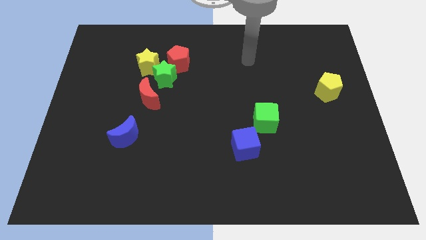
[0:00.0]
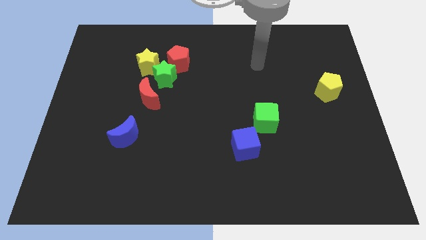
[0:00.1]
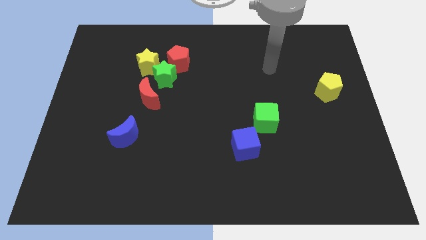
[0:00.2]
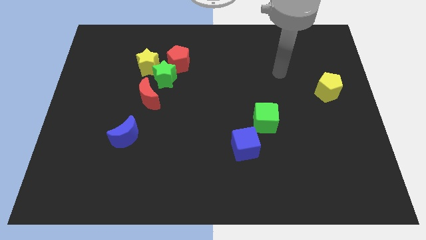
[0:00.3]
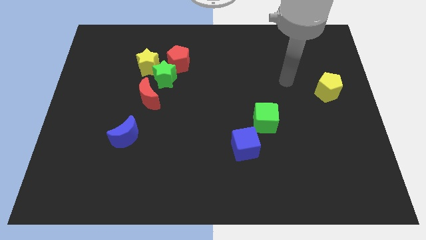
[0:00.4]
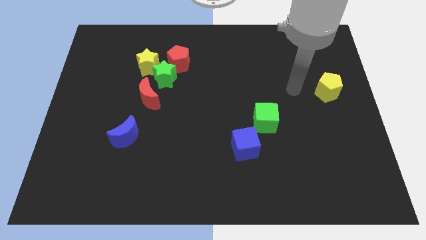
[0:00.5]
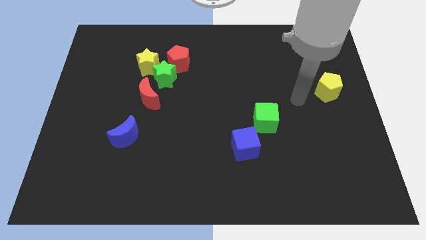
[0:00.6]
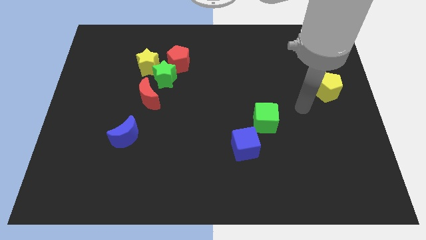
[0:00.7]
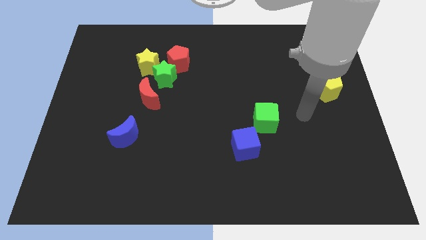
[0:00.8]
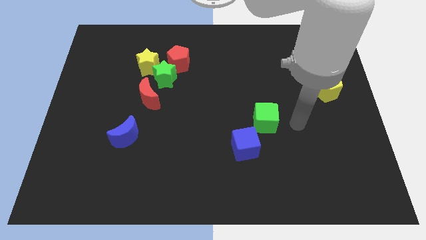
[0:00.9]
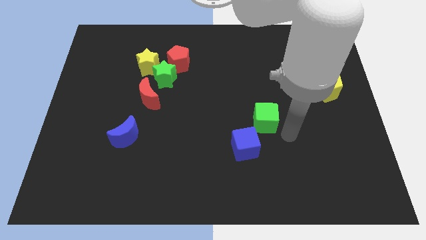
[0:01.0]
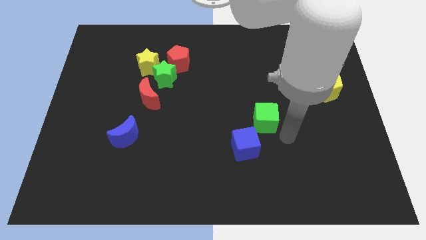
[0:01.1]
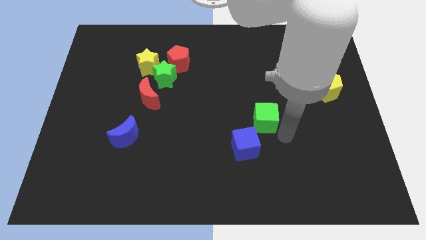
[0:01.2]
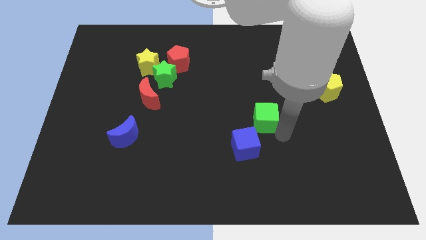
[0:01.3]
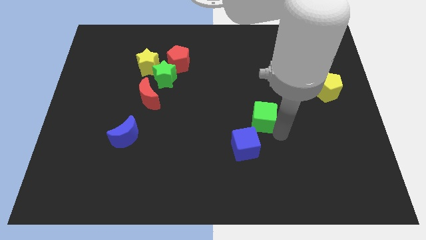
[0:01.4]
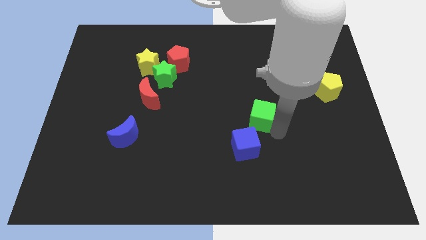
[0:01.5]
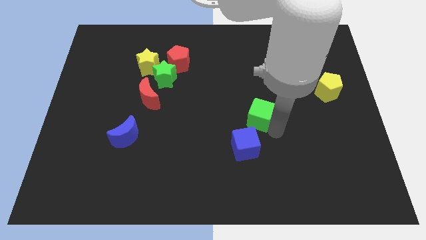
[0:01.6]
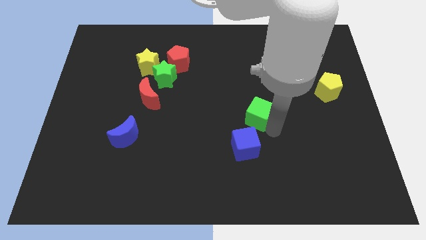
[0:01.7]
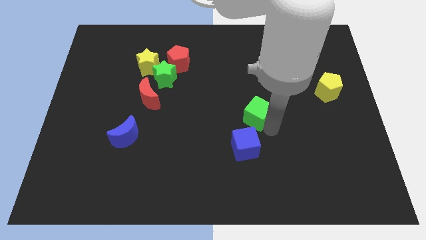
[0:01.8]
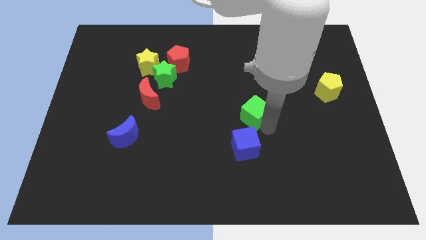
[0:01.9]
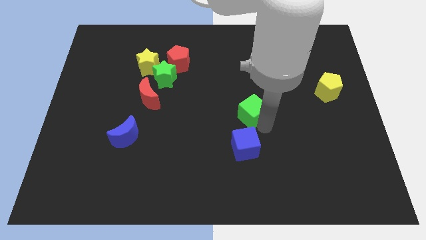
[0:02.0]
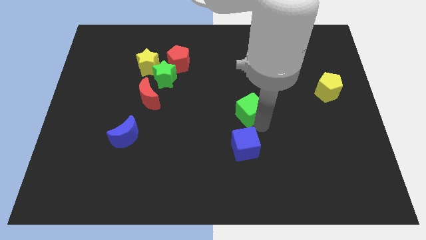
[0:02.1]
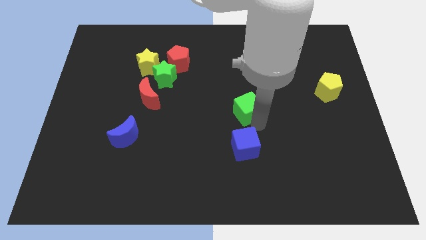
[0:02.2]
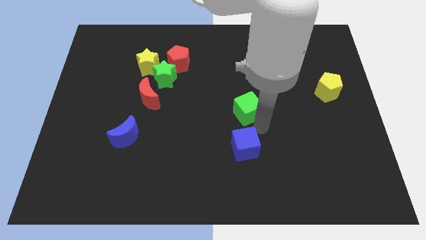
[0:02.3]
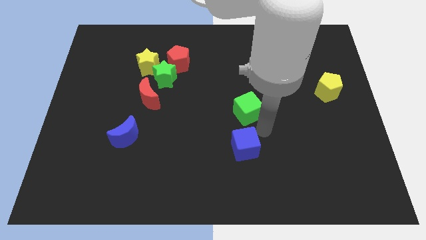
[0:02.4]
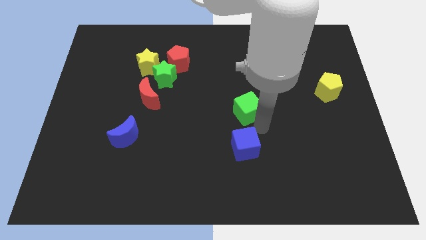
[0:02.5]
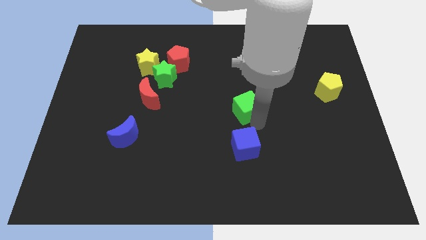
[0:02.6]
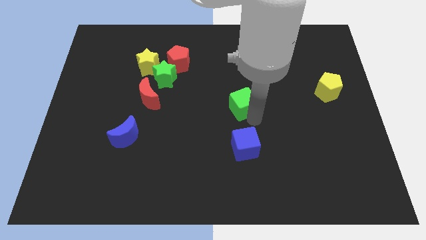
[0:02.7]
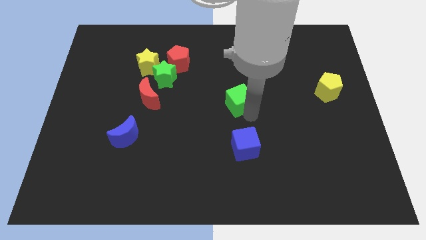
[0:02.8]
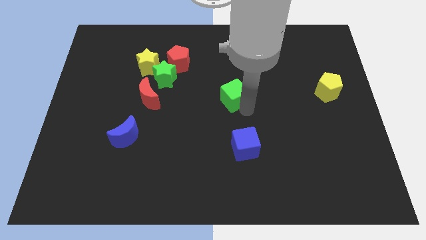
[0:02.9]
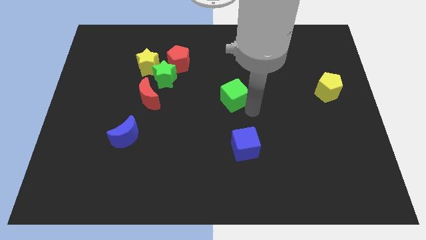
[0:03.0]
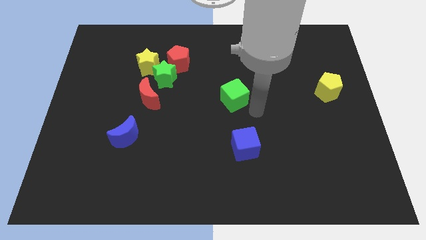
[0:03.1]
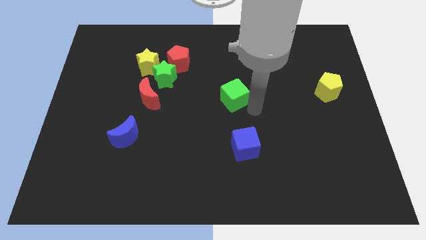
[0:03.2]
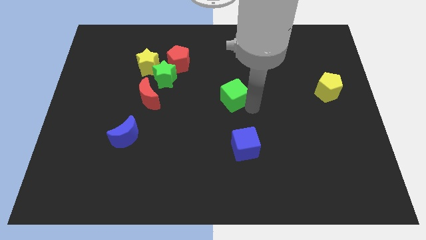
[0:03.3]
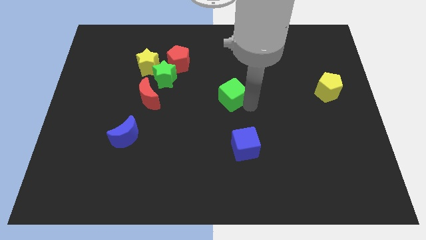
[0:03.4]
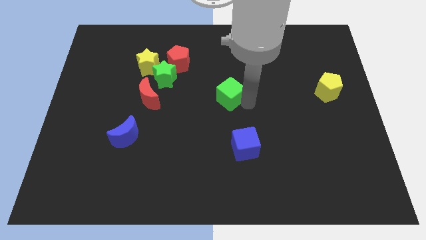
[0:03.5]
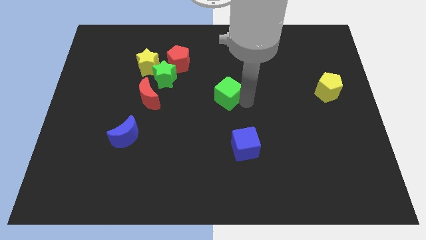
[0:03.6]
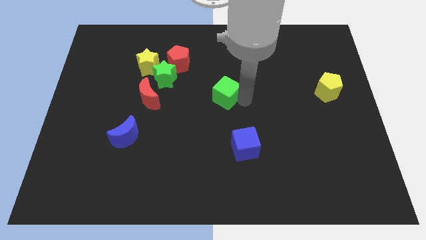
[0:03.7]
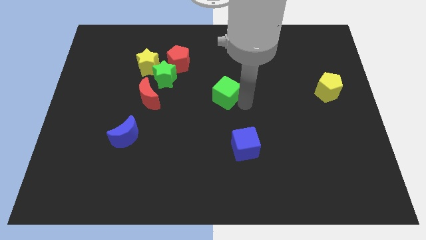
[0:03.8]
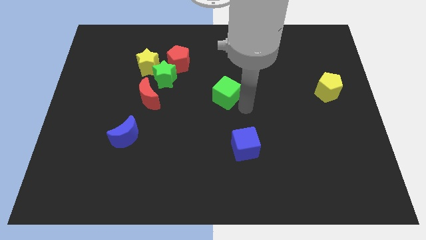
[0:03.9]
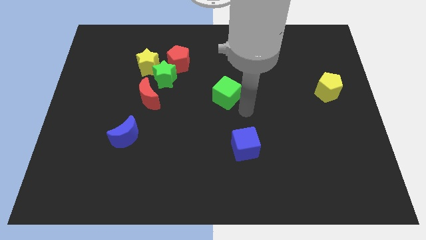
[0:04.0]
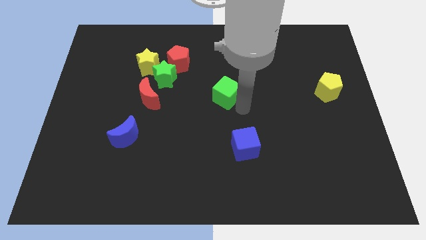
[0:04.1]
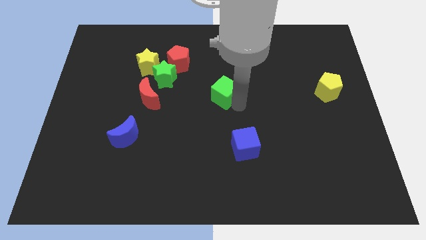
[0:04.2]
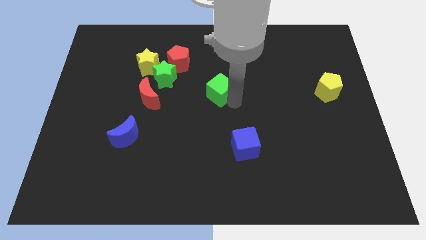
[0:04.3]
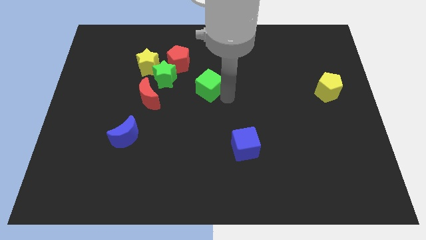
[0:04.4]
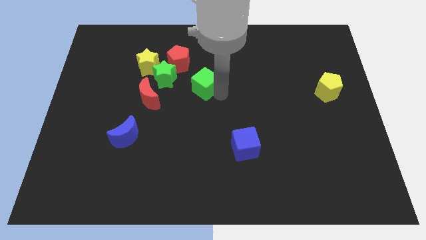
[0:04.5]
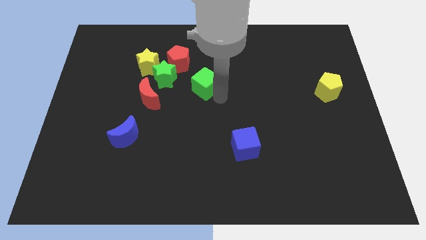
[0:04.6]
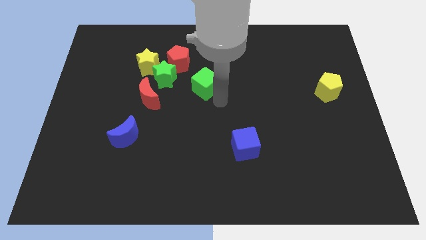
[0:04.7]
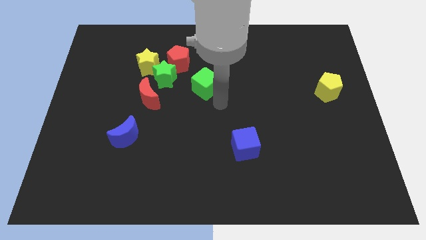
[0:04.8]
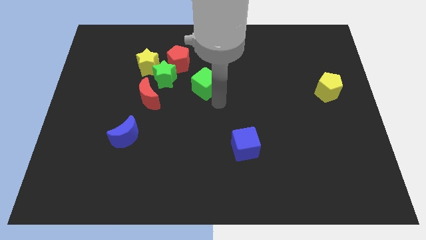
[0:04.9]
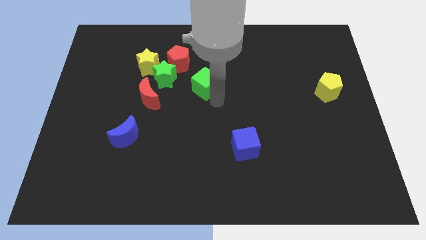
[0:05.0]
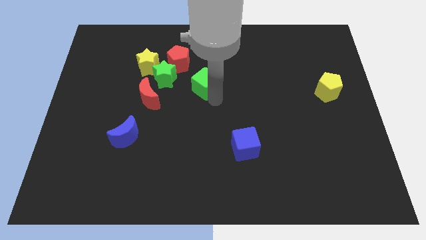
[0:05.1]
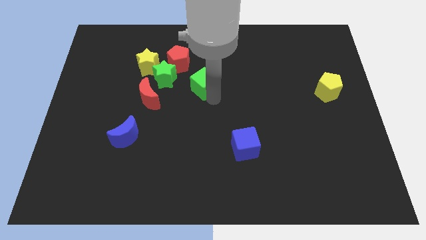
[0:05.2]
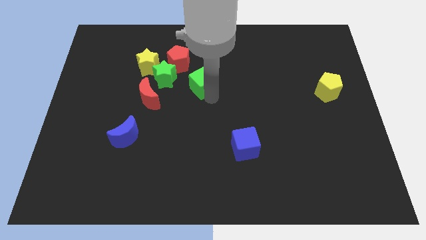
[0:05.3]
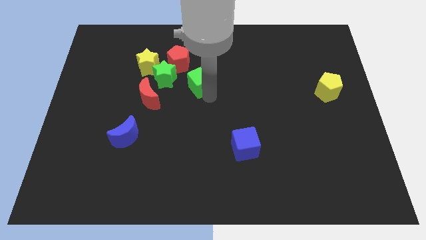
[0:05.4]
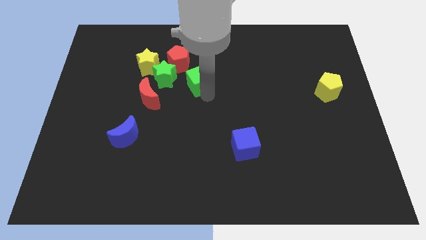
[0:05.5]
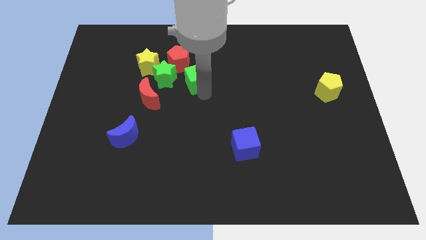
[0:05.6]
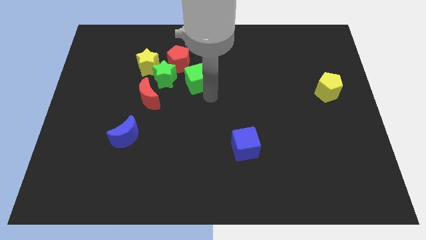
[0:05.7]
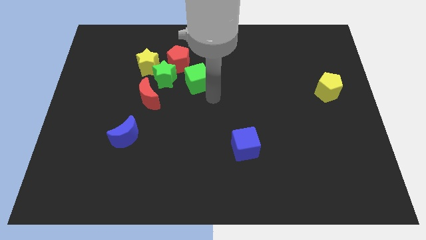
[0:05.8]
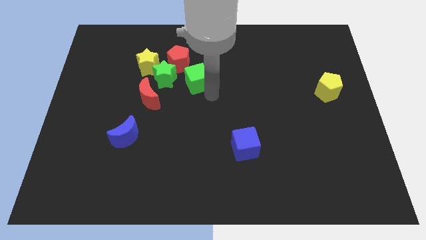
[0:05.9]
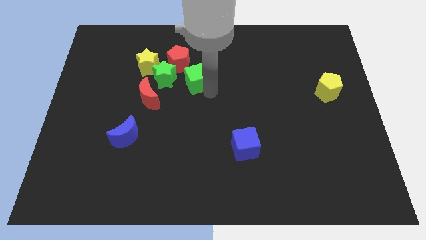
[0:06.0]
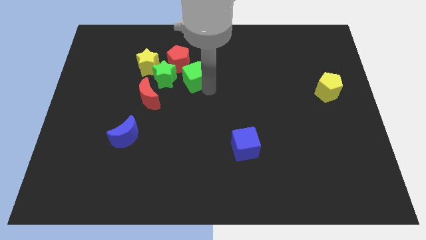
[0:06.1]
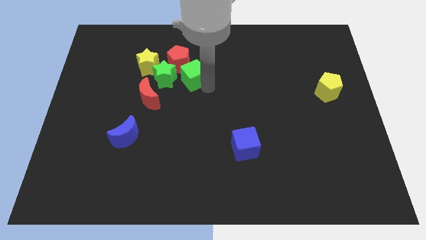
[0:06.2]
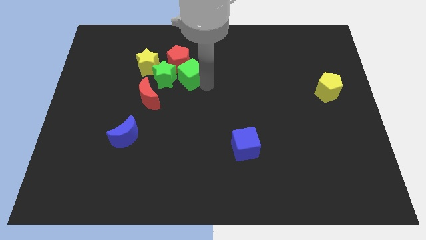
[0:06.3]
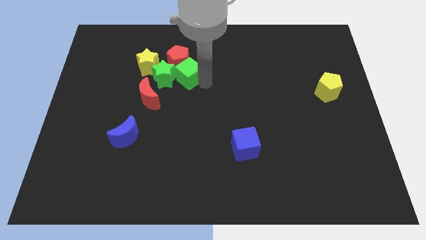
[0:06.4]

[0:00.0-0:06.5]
put the green cube close to the red pentagon
